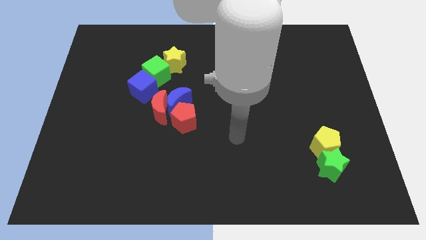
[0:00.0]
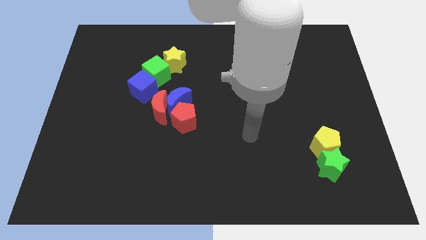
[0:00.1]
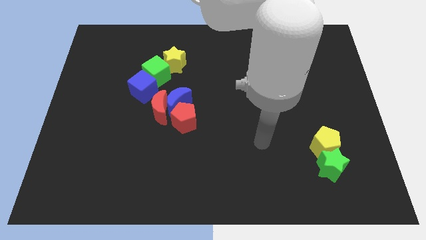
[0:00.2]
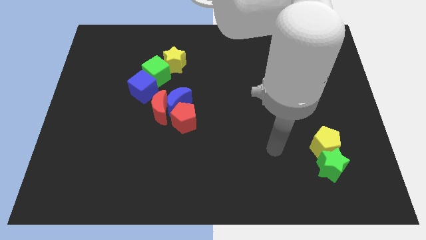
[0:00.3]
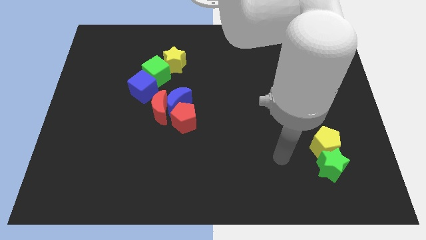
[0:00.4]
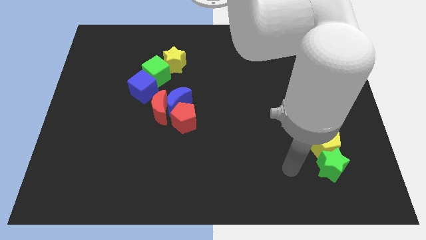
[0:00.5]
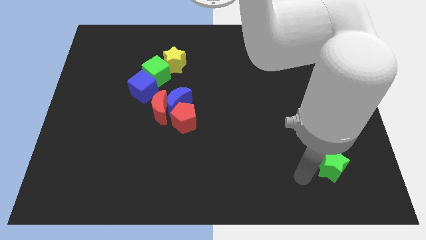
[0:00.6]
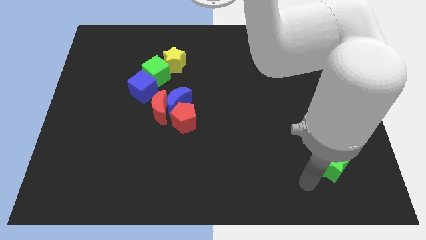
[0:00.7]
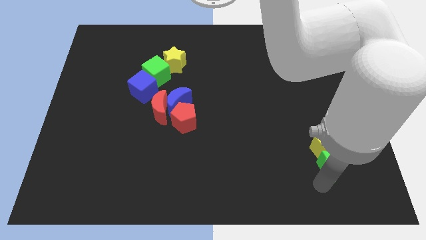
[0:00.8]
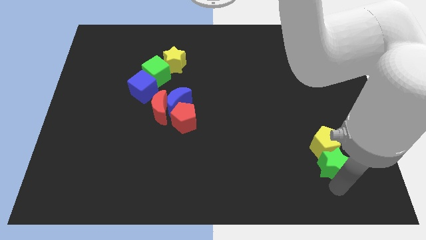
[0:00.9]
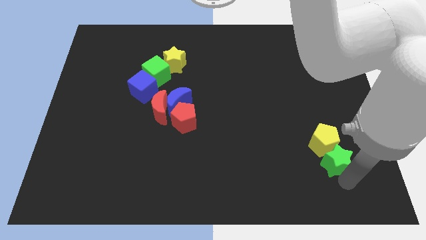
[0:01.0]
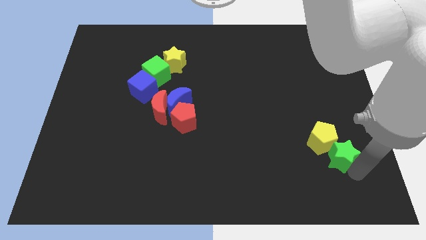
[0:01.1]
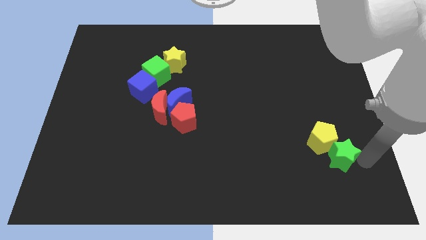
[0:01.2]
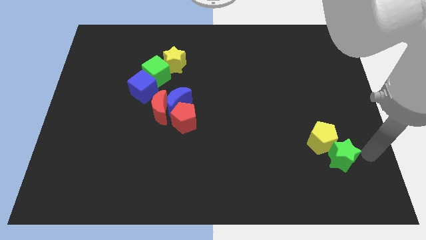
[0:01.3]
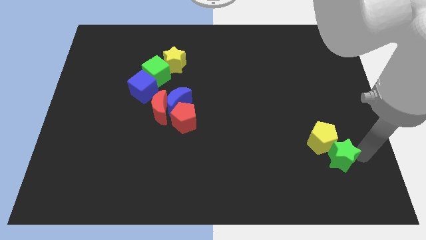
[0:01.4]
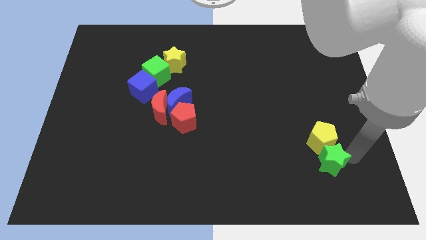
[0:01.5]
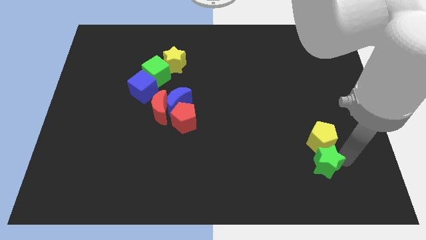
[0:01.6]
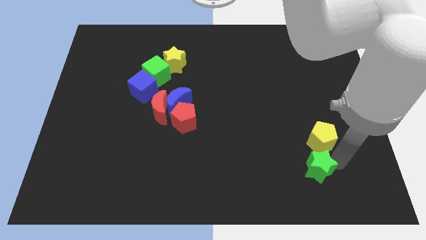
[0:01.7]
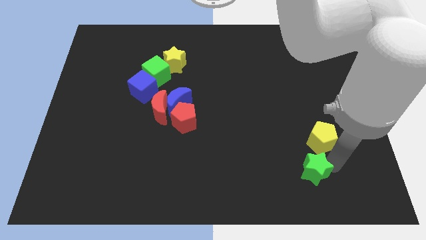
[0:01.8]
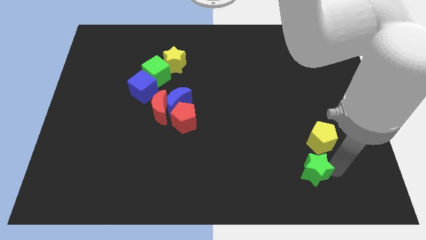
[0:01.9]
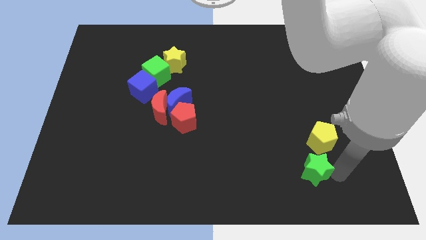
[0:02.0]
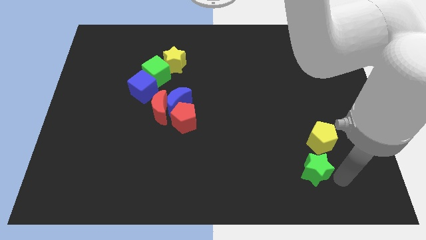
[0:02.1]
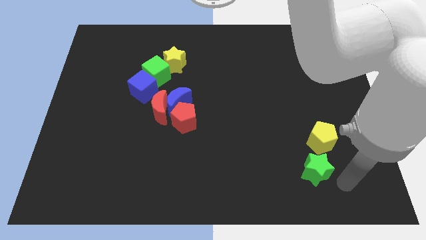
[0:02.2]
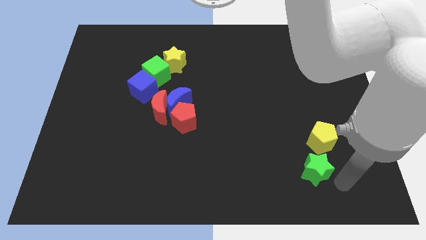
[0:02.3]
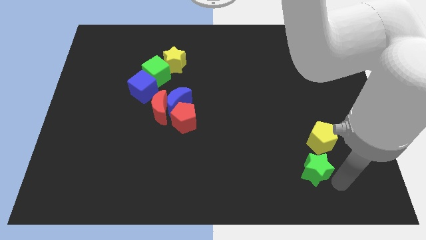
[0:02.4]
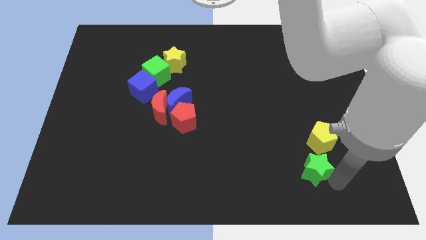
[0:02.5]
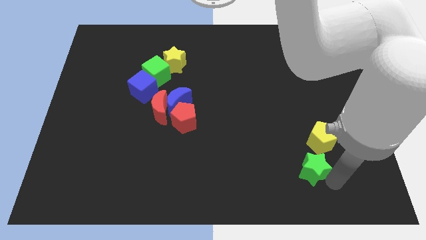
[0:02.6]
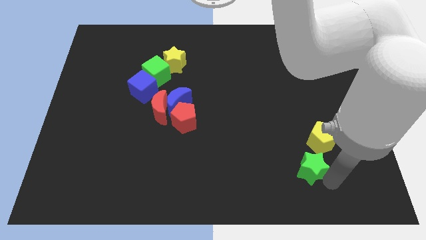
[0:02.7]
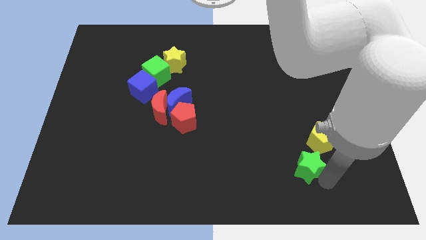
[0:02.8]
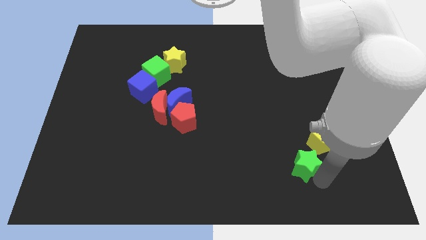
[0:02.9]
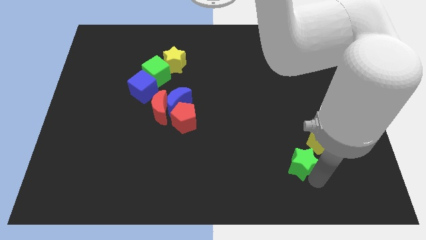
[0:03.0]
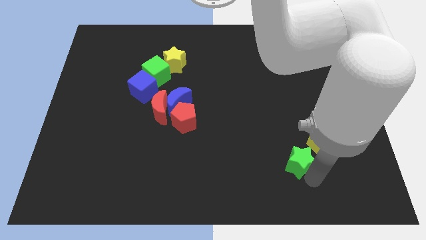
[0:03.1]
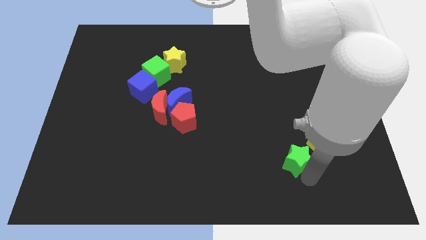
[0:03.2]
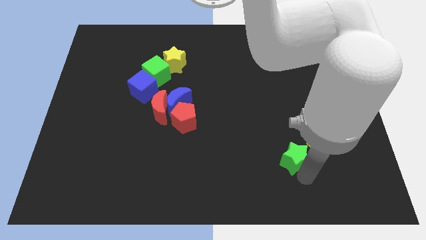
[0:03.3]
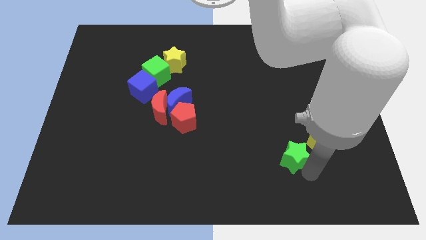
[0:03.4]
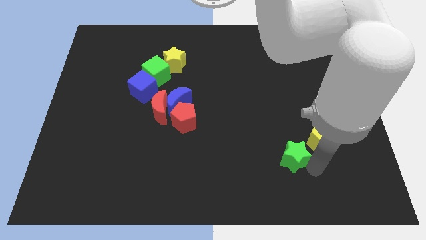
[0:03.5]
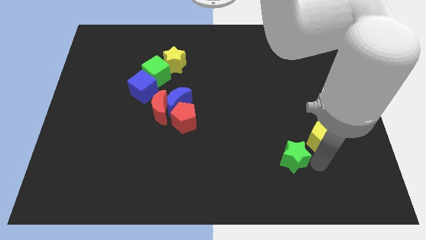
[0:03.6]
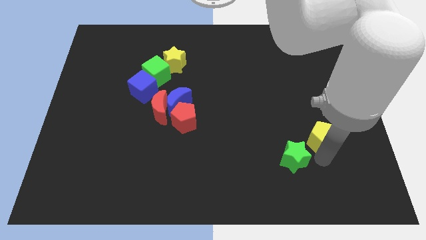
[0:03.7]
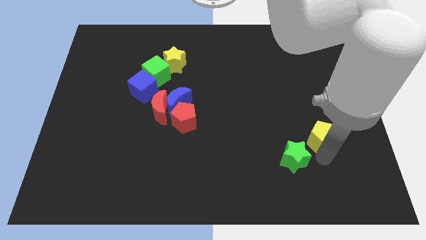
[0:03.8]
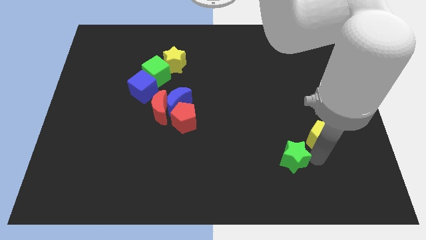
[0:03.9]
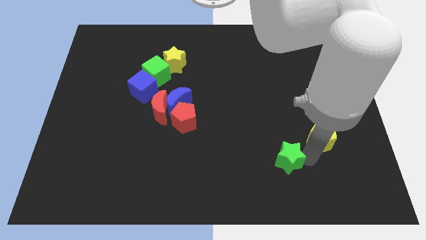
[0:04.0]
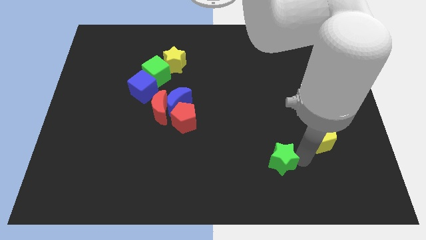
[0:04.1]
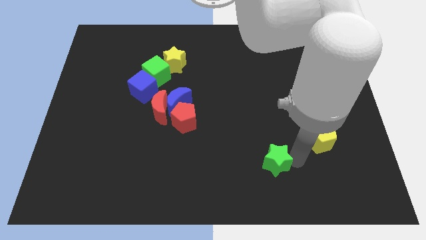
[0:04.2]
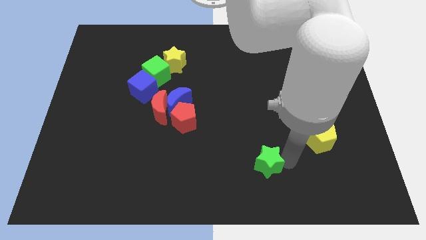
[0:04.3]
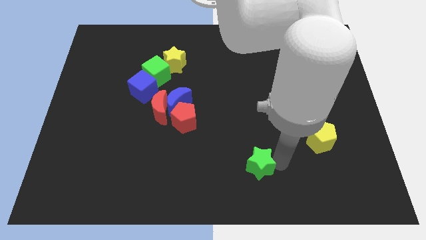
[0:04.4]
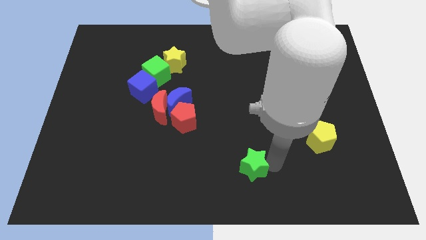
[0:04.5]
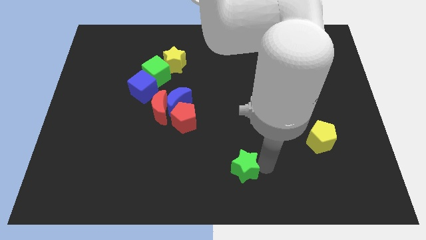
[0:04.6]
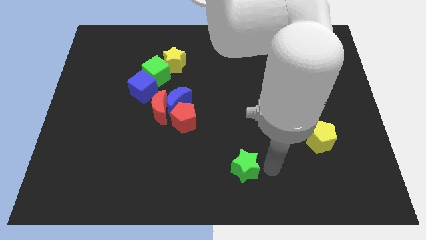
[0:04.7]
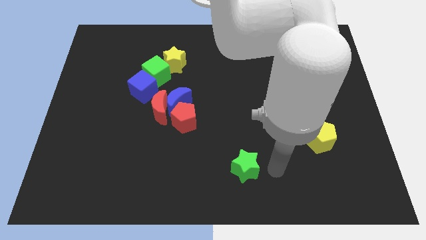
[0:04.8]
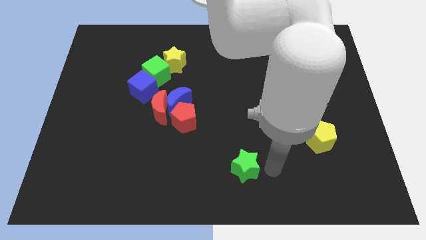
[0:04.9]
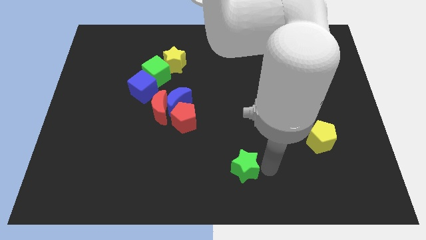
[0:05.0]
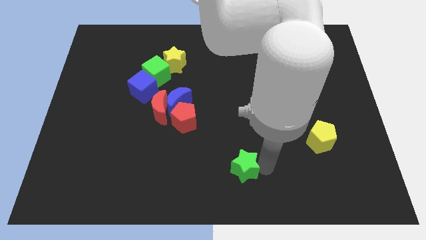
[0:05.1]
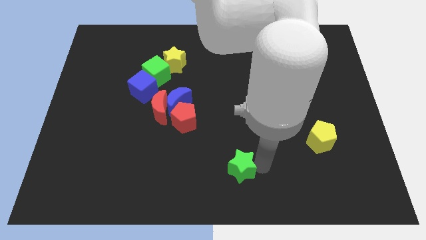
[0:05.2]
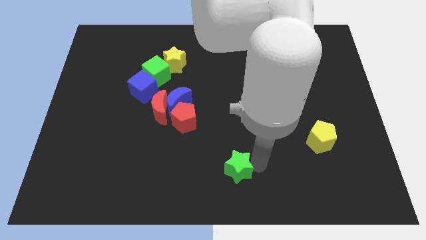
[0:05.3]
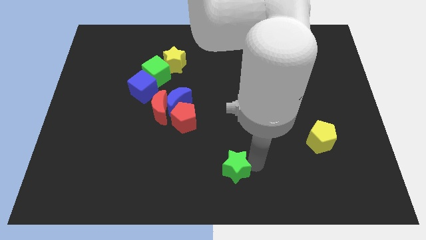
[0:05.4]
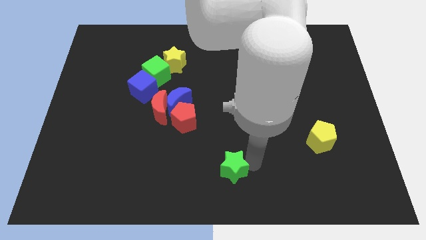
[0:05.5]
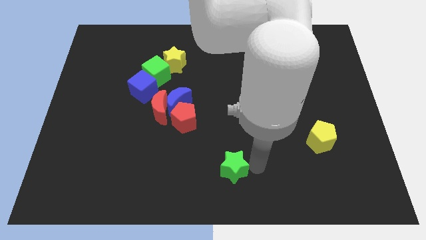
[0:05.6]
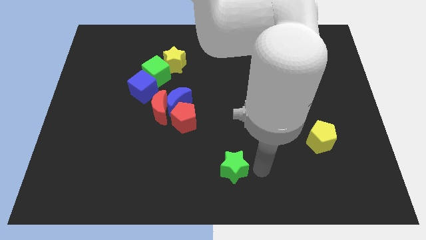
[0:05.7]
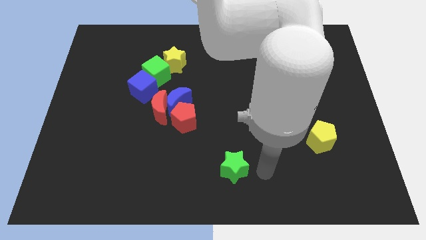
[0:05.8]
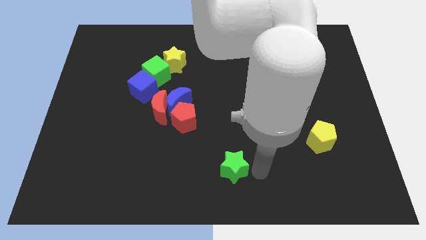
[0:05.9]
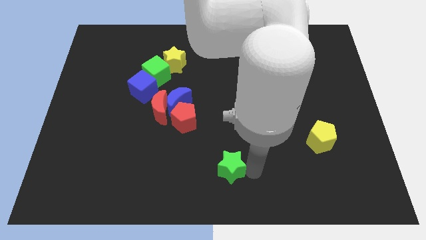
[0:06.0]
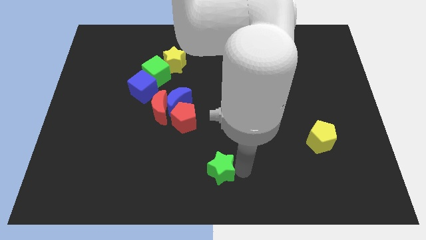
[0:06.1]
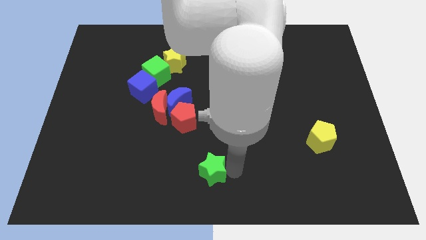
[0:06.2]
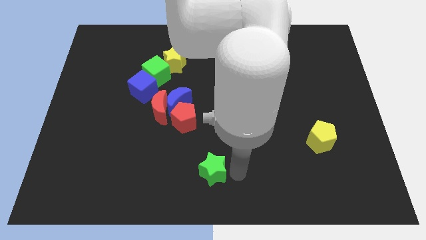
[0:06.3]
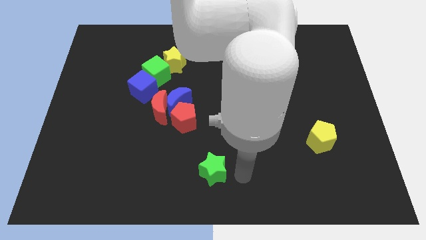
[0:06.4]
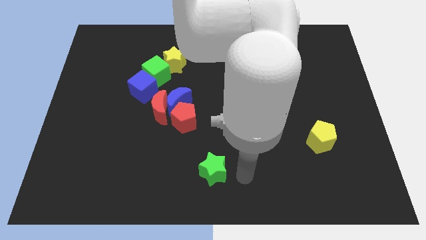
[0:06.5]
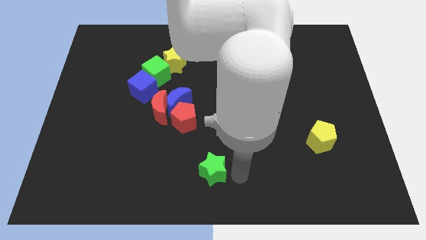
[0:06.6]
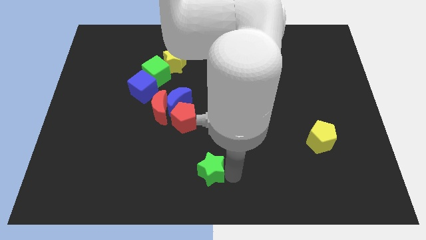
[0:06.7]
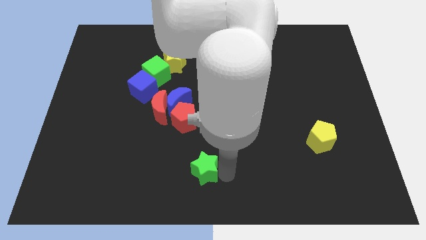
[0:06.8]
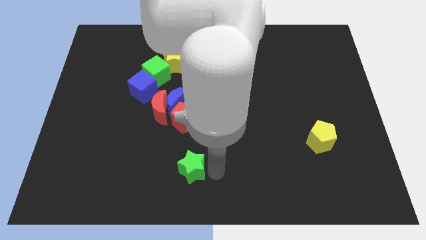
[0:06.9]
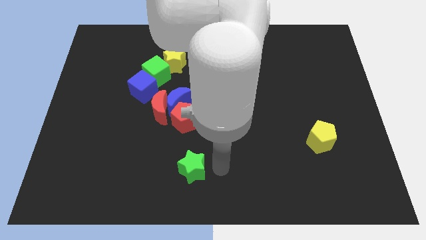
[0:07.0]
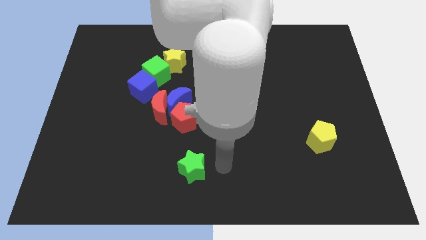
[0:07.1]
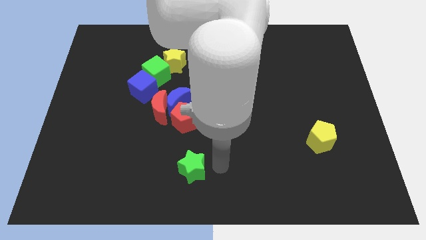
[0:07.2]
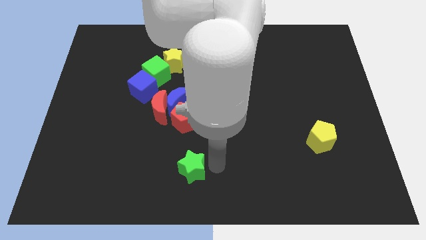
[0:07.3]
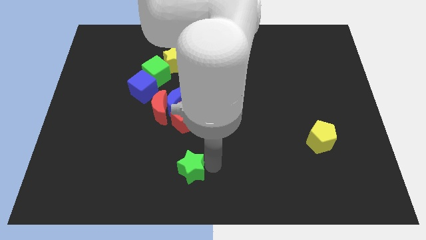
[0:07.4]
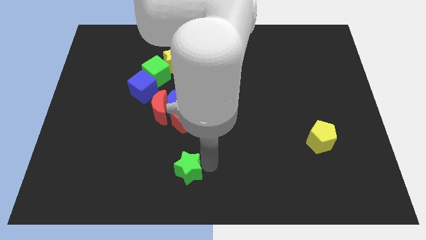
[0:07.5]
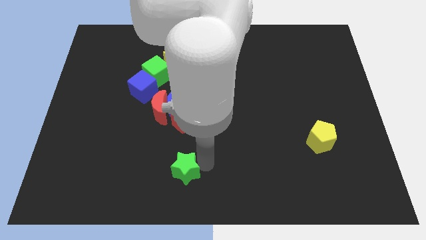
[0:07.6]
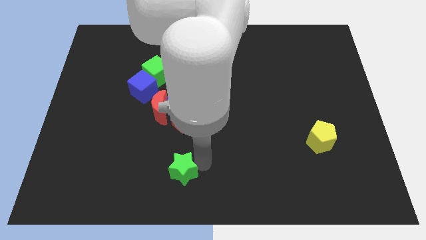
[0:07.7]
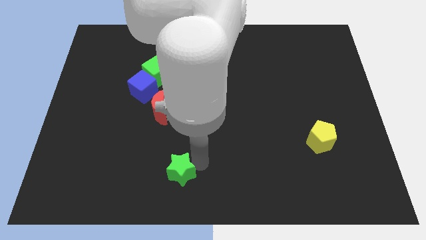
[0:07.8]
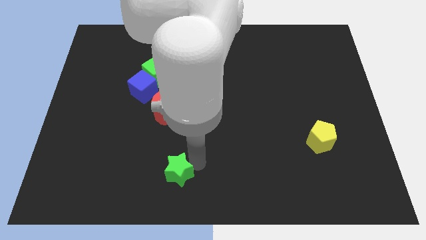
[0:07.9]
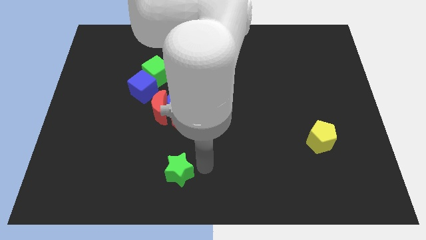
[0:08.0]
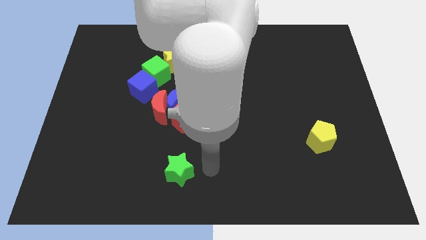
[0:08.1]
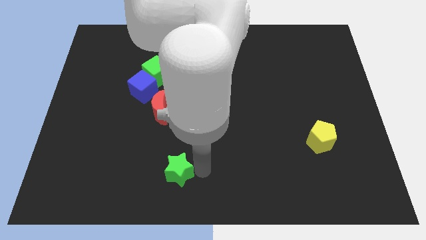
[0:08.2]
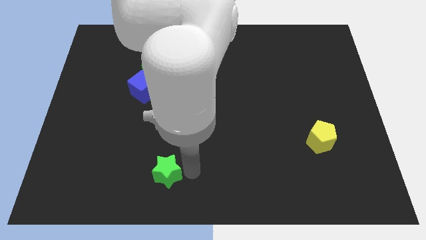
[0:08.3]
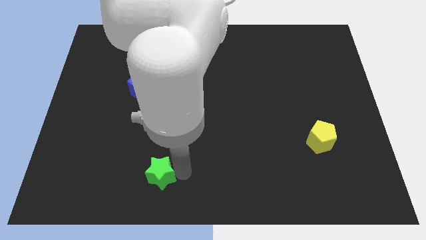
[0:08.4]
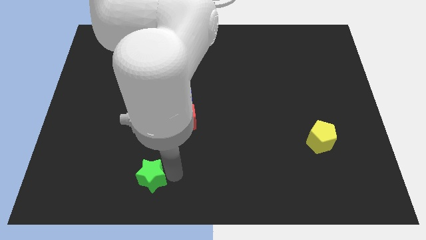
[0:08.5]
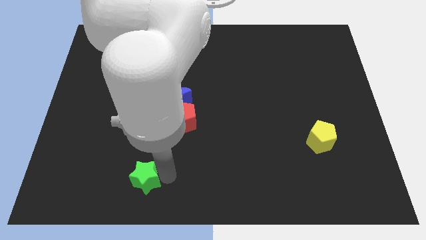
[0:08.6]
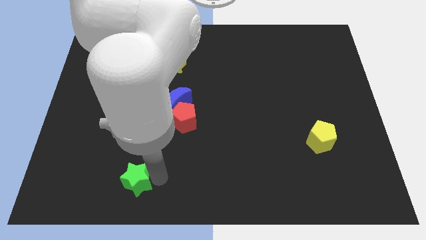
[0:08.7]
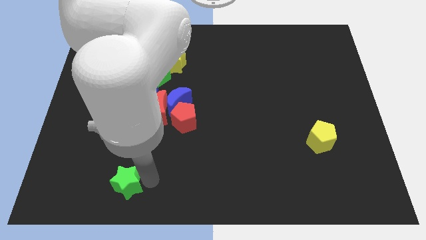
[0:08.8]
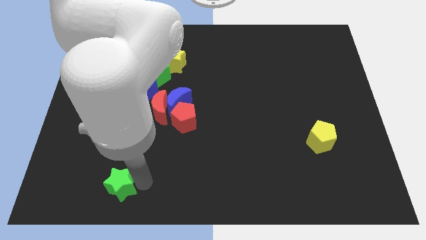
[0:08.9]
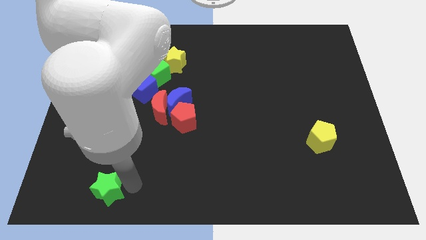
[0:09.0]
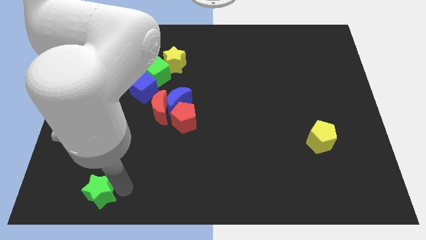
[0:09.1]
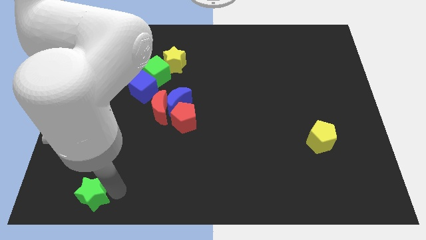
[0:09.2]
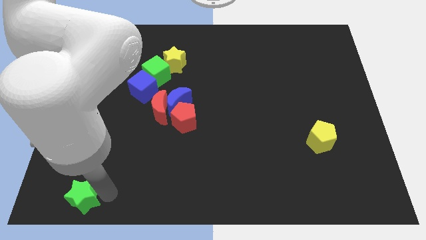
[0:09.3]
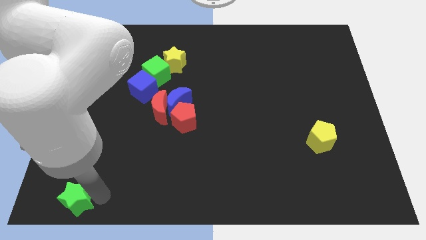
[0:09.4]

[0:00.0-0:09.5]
move the green star to the bottom left corner
